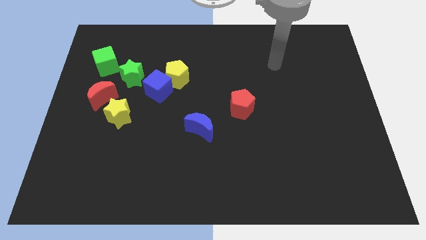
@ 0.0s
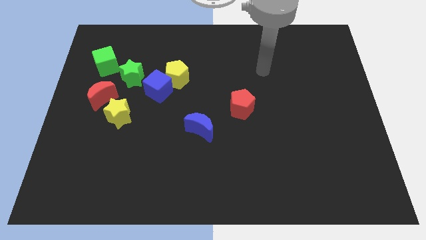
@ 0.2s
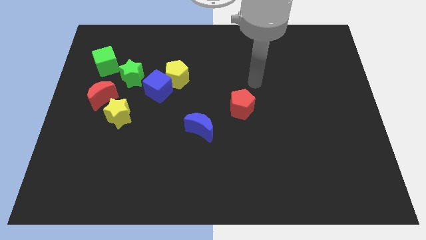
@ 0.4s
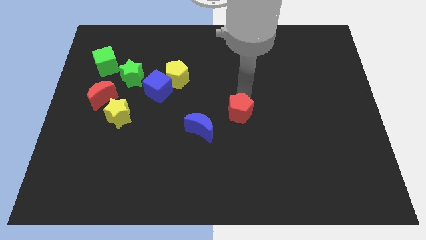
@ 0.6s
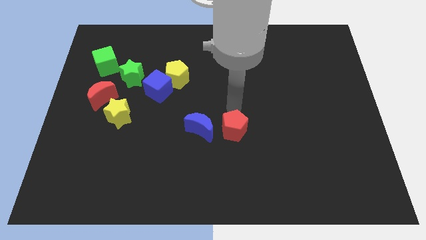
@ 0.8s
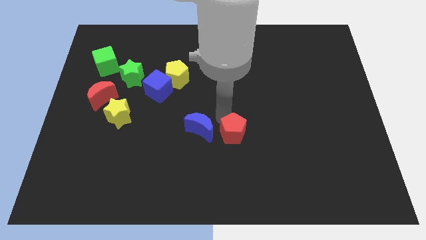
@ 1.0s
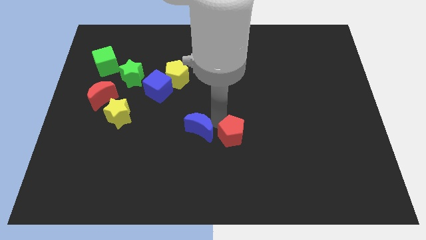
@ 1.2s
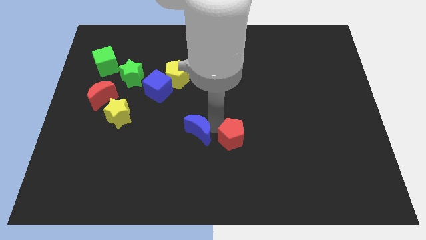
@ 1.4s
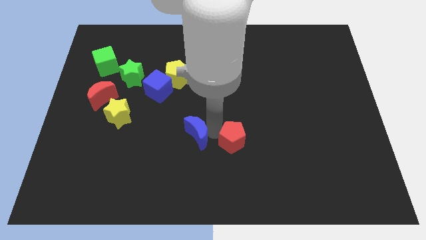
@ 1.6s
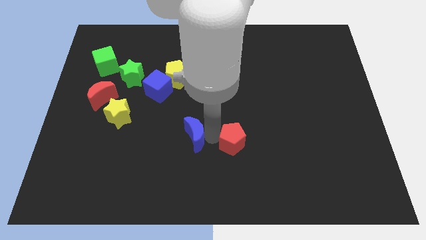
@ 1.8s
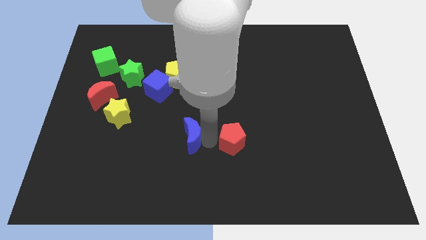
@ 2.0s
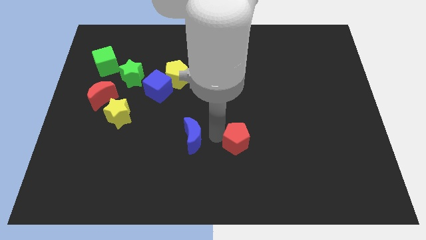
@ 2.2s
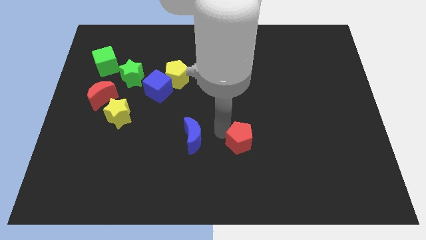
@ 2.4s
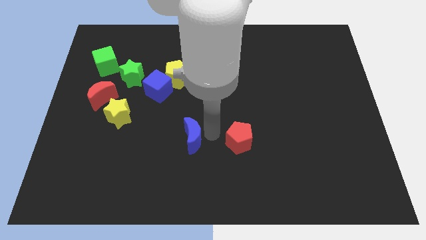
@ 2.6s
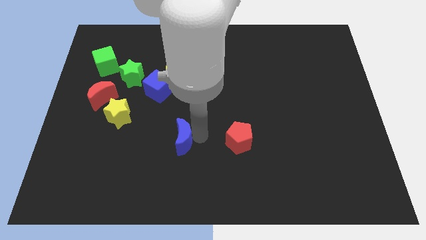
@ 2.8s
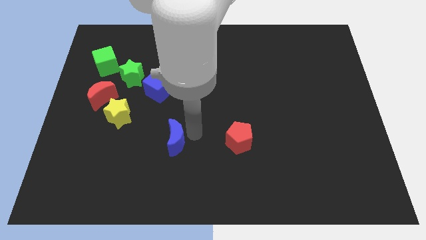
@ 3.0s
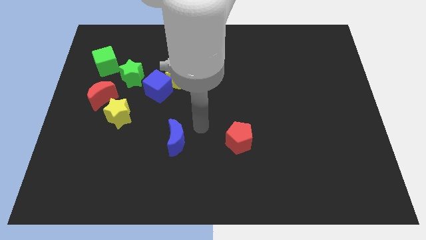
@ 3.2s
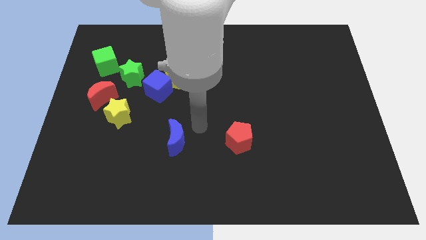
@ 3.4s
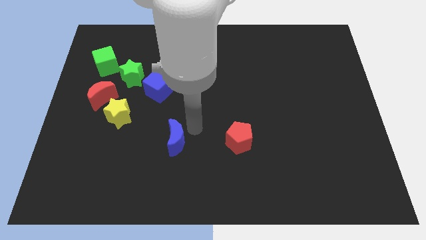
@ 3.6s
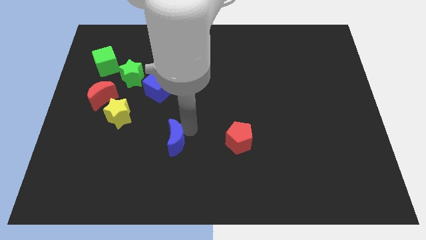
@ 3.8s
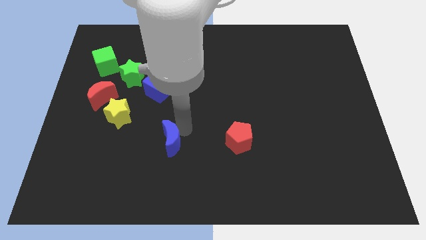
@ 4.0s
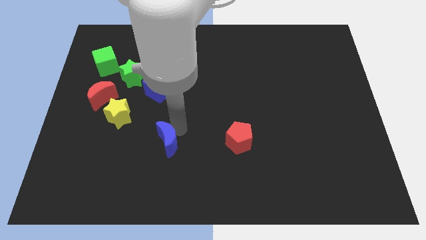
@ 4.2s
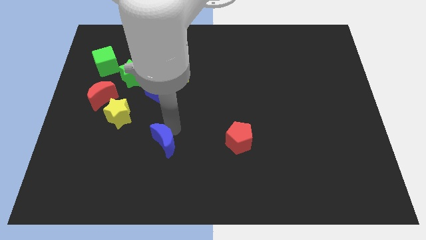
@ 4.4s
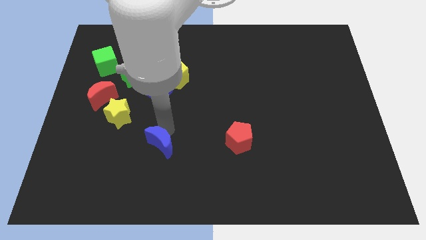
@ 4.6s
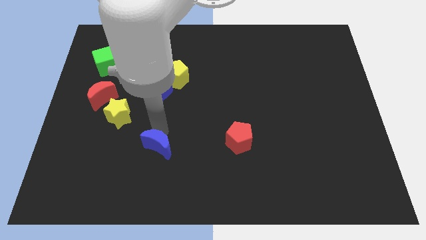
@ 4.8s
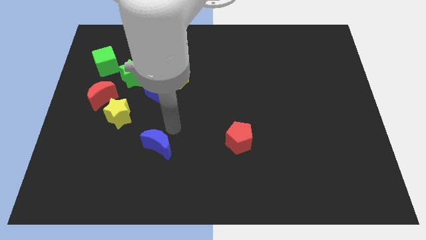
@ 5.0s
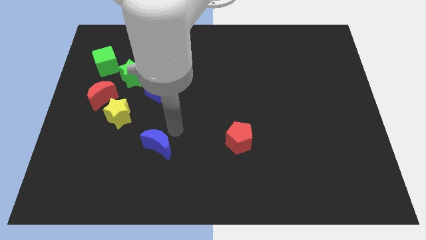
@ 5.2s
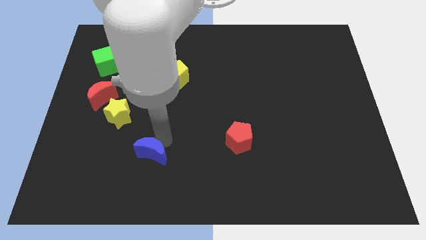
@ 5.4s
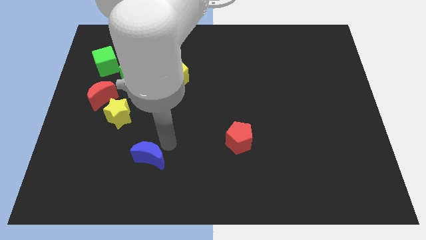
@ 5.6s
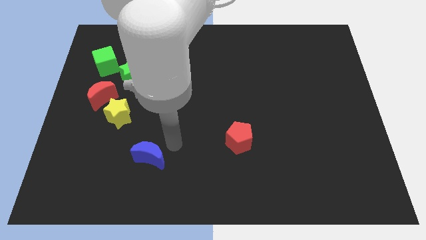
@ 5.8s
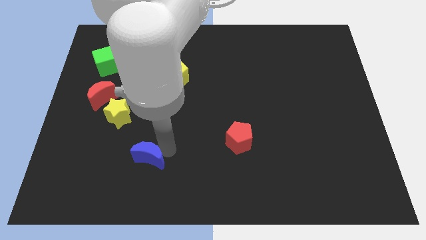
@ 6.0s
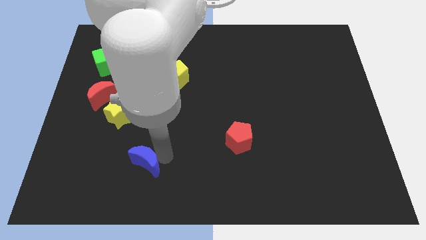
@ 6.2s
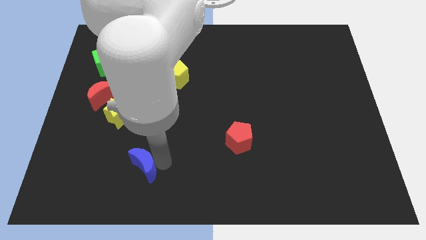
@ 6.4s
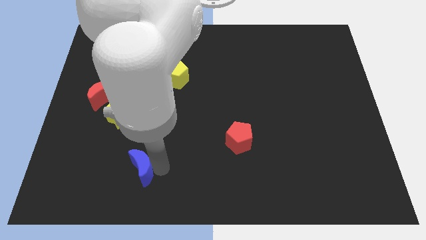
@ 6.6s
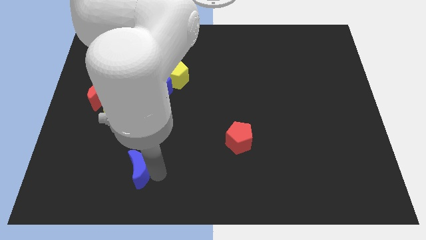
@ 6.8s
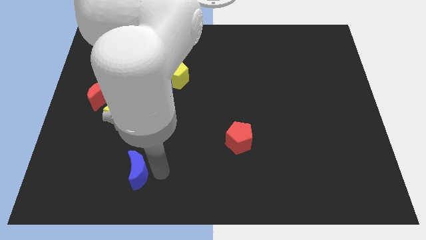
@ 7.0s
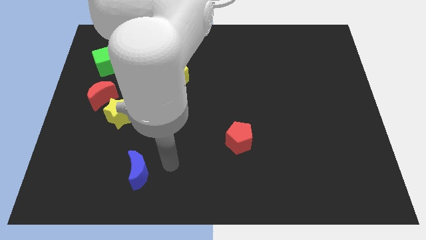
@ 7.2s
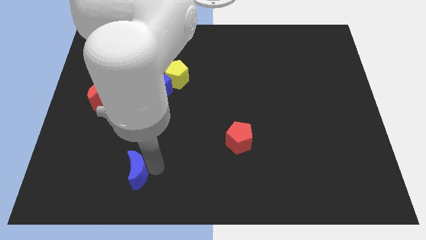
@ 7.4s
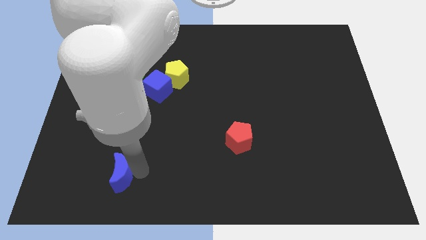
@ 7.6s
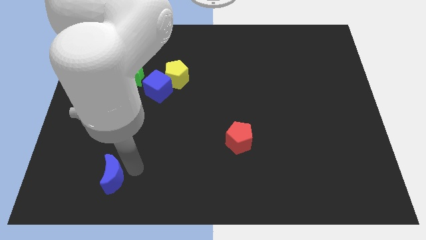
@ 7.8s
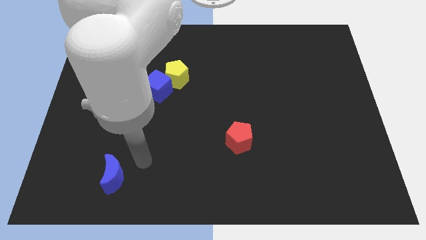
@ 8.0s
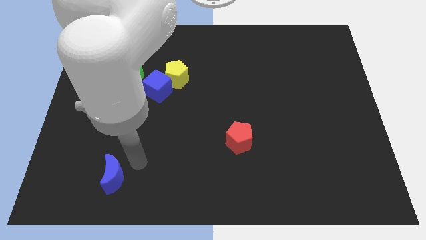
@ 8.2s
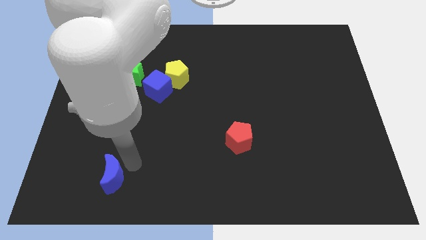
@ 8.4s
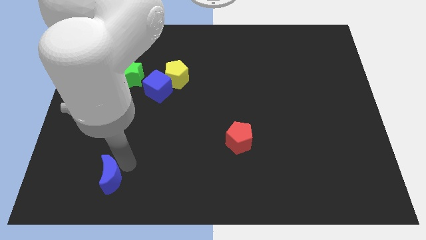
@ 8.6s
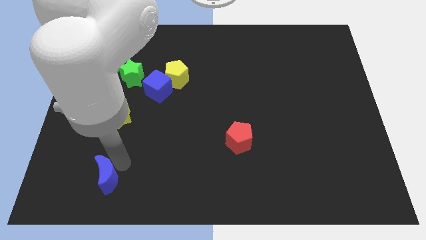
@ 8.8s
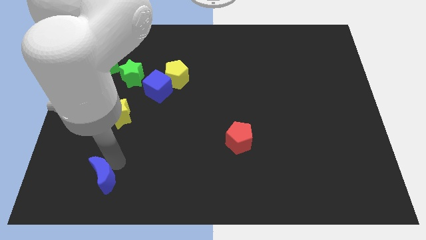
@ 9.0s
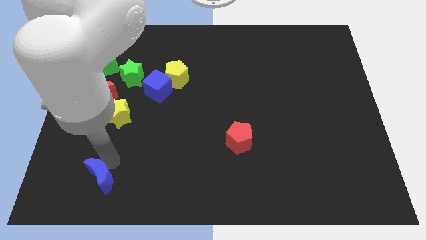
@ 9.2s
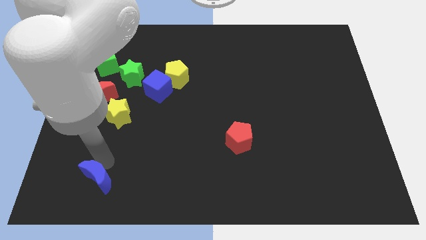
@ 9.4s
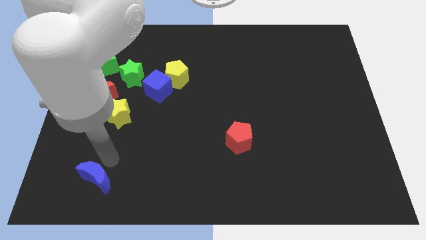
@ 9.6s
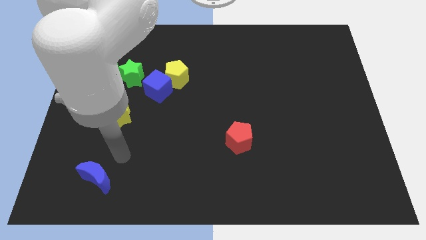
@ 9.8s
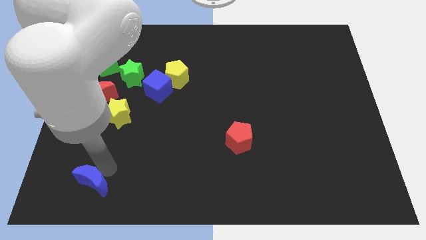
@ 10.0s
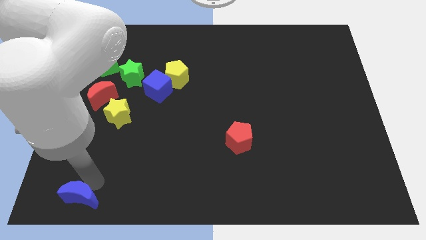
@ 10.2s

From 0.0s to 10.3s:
move the blue moon to the bottom left corner

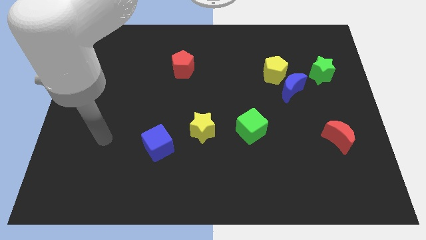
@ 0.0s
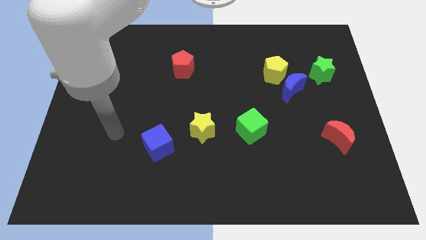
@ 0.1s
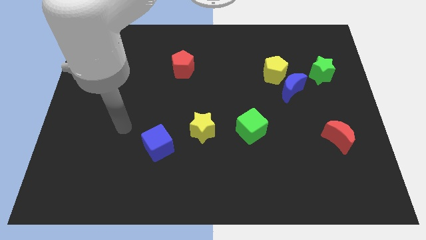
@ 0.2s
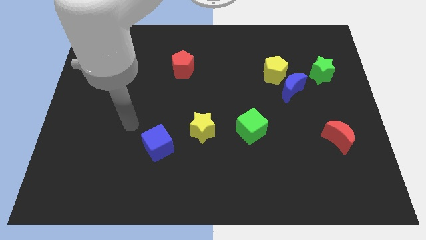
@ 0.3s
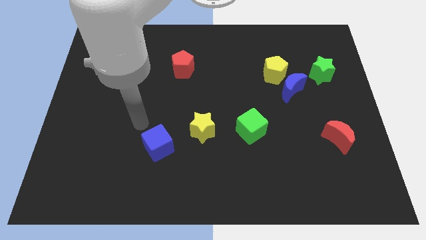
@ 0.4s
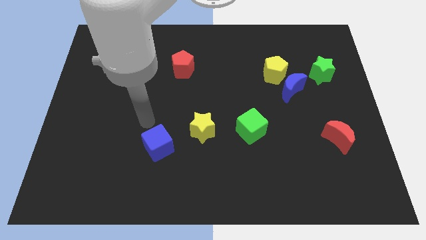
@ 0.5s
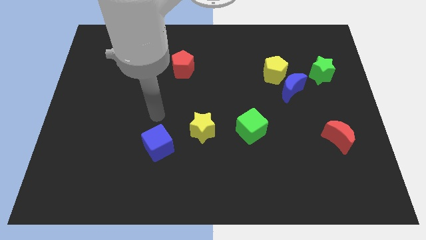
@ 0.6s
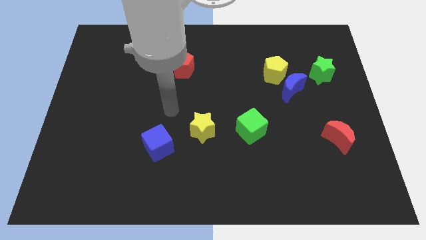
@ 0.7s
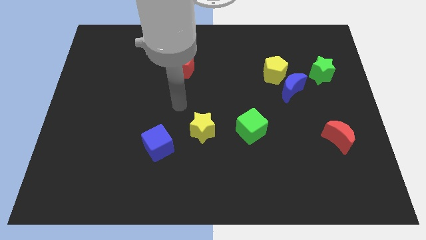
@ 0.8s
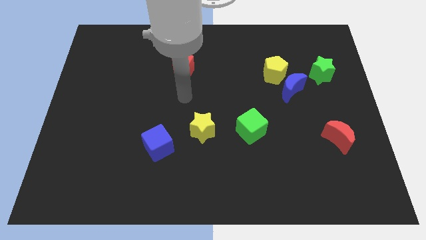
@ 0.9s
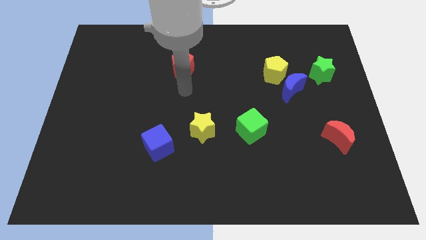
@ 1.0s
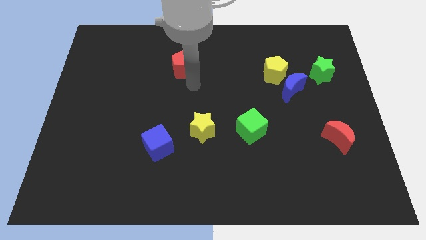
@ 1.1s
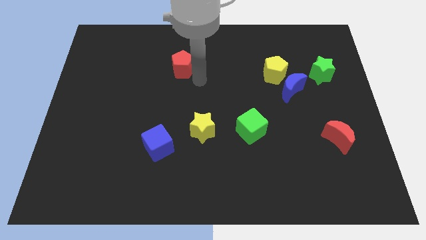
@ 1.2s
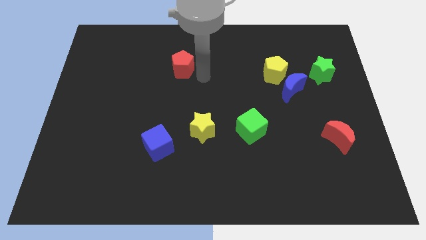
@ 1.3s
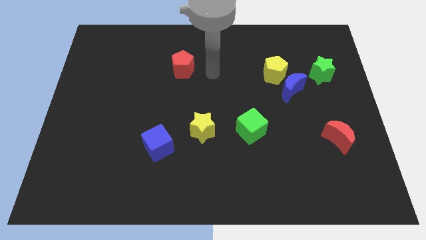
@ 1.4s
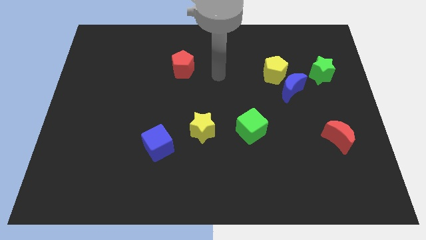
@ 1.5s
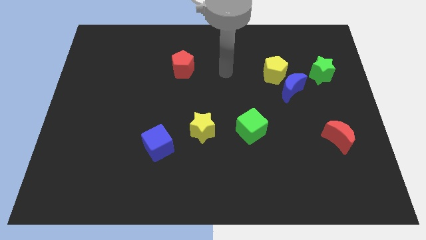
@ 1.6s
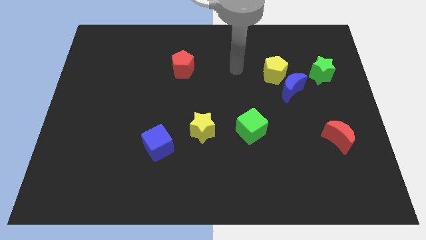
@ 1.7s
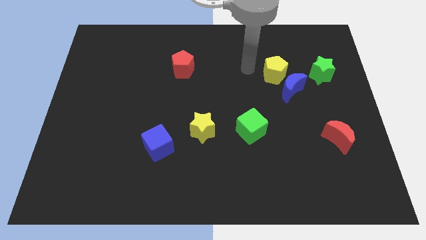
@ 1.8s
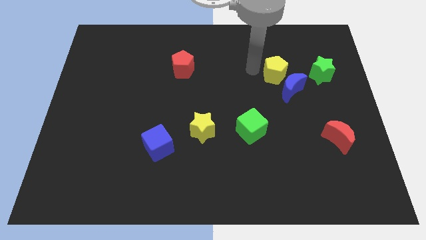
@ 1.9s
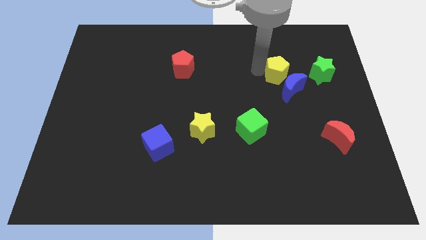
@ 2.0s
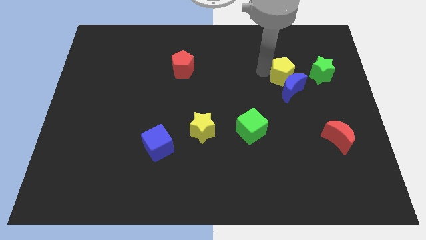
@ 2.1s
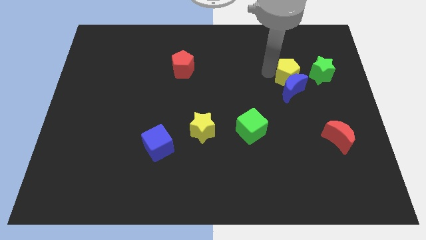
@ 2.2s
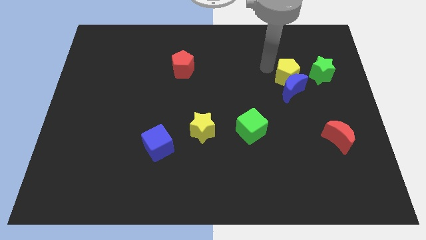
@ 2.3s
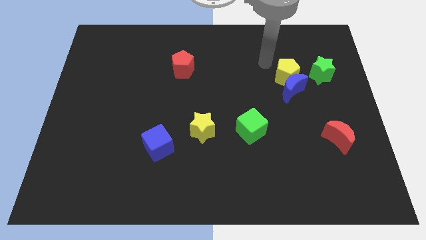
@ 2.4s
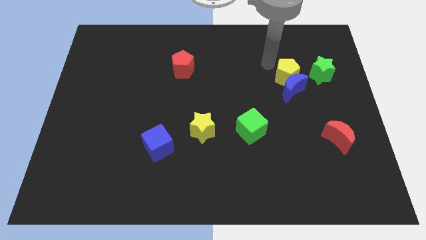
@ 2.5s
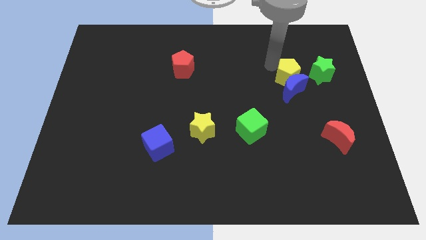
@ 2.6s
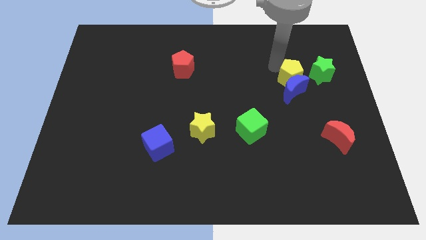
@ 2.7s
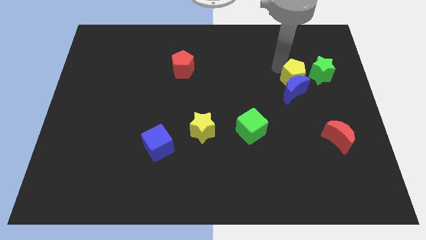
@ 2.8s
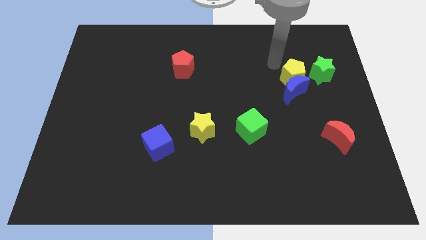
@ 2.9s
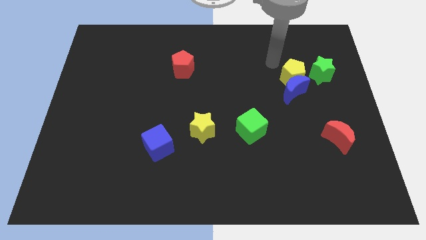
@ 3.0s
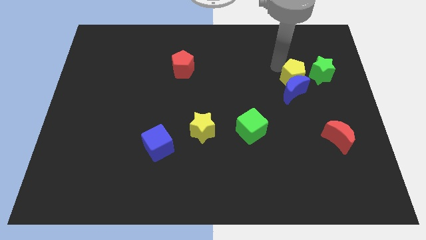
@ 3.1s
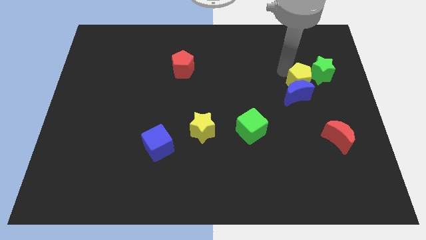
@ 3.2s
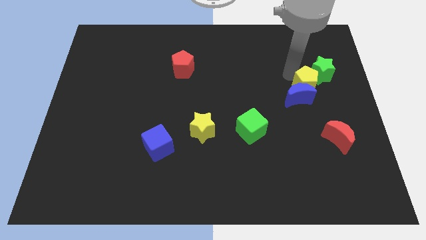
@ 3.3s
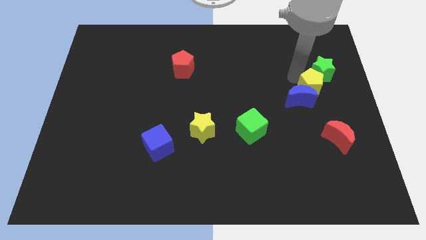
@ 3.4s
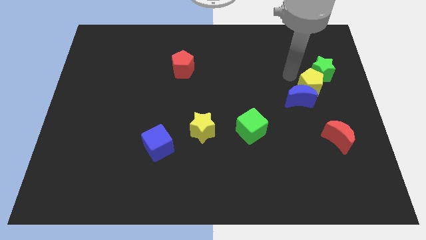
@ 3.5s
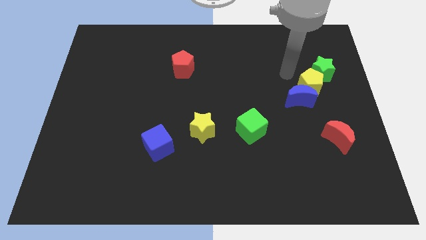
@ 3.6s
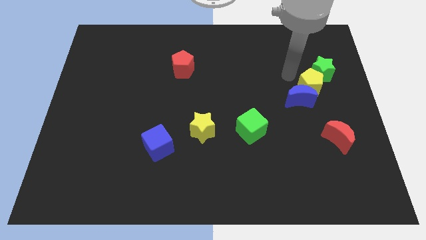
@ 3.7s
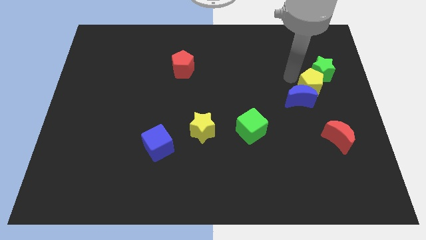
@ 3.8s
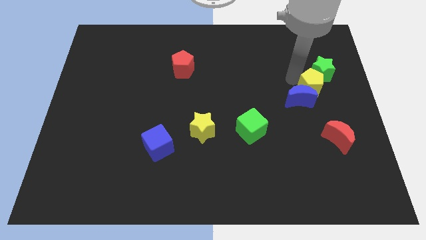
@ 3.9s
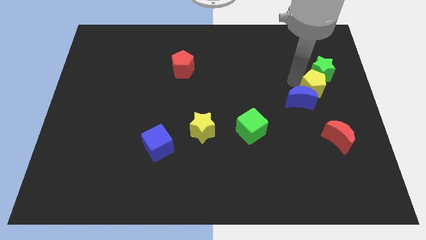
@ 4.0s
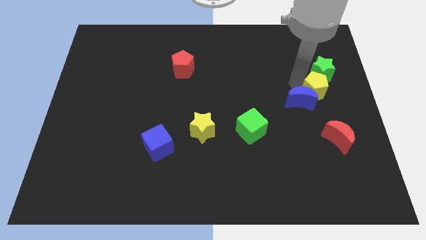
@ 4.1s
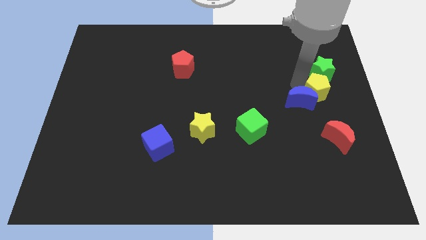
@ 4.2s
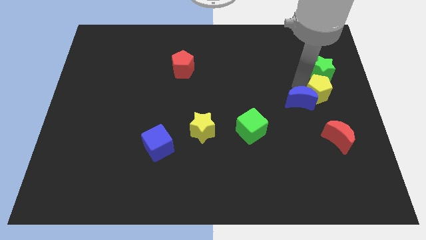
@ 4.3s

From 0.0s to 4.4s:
push the yellow pentagon to the right side of the board
